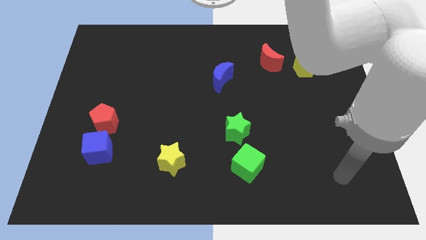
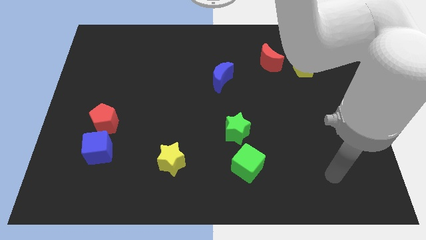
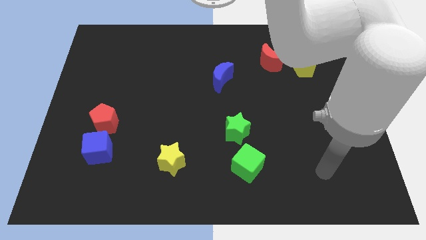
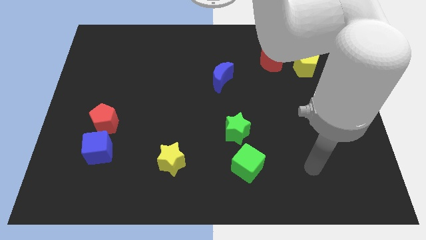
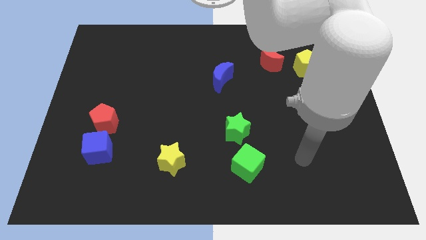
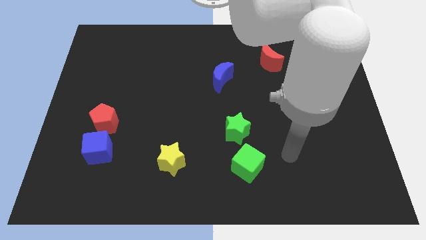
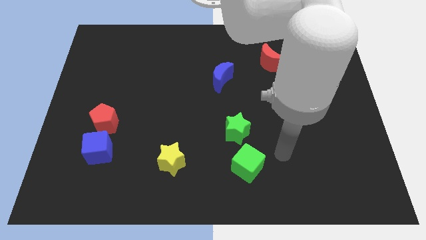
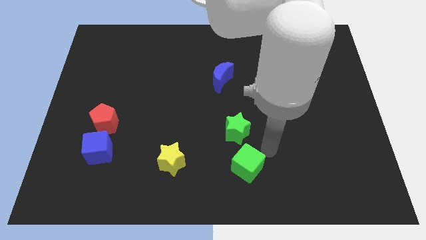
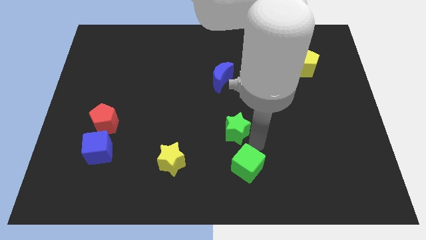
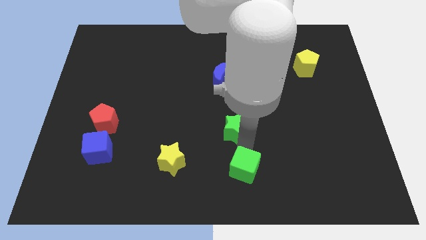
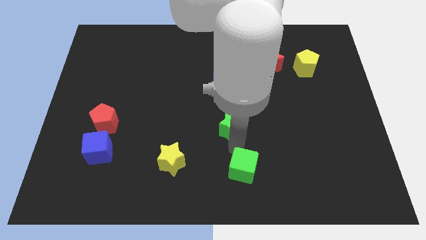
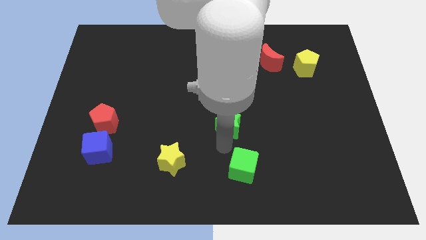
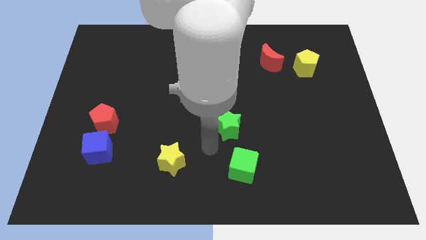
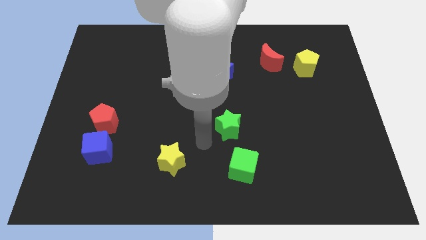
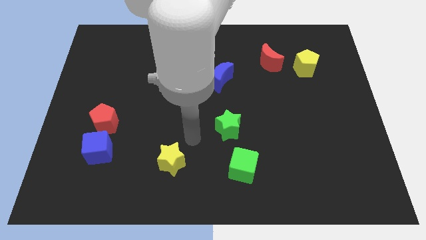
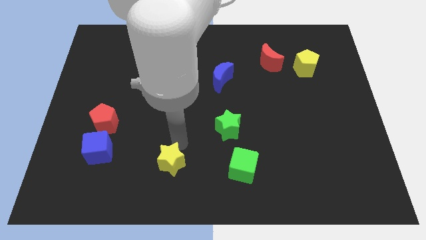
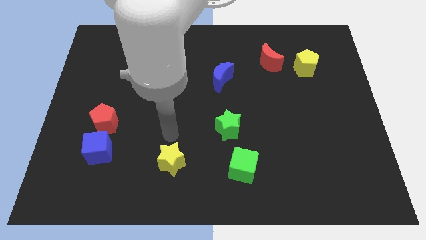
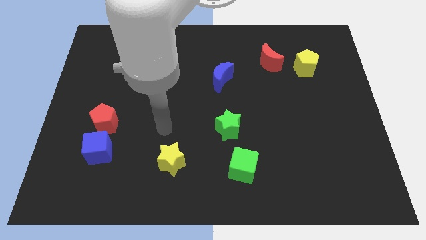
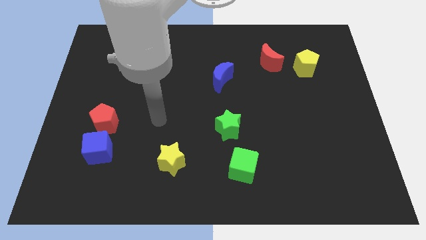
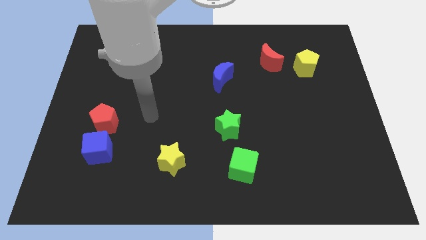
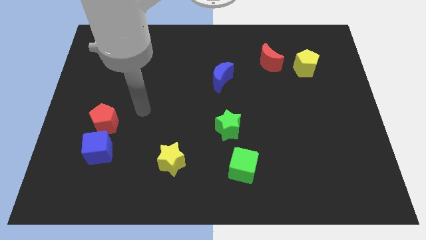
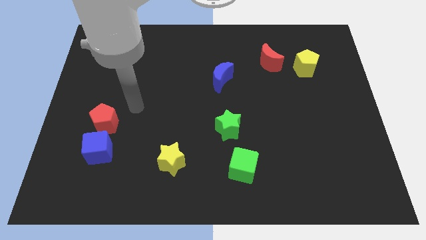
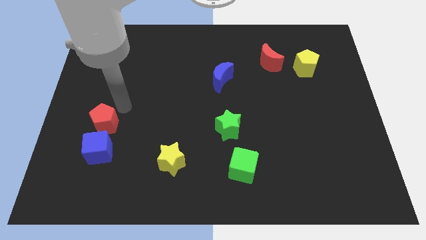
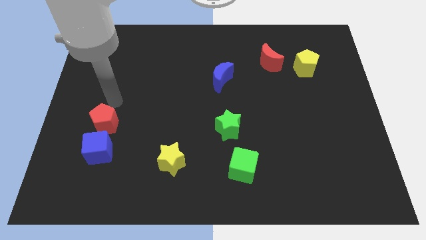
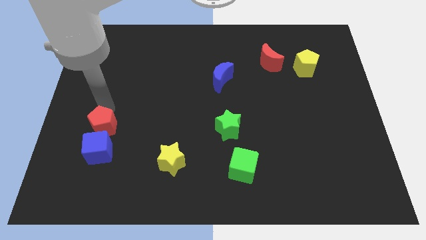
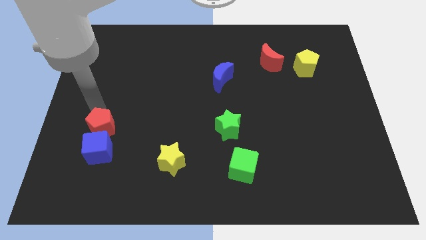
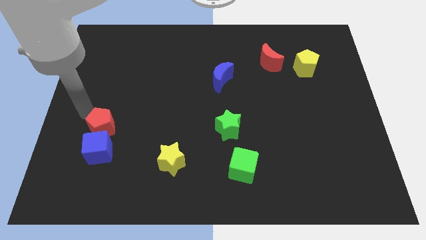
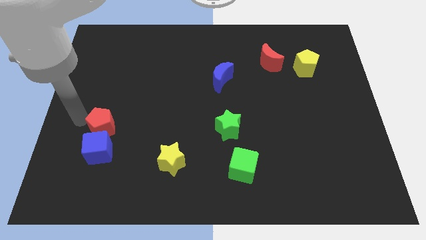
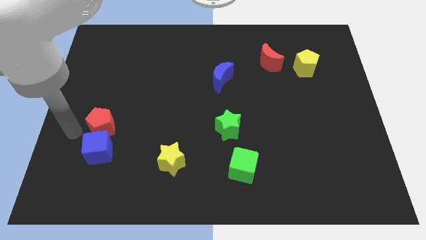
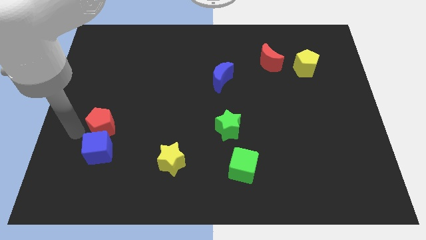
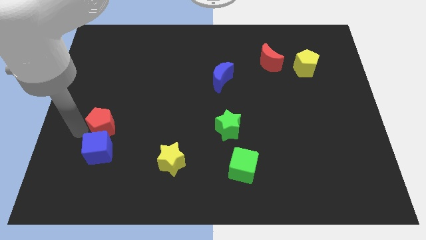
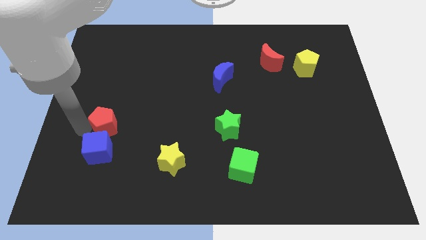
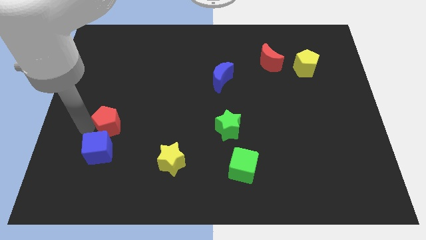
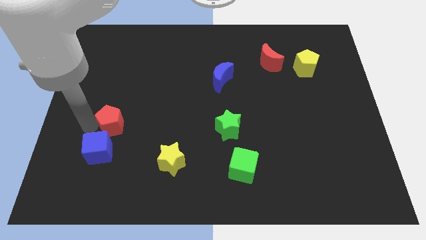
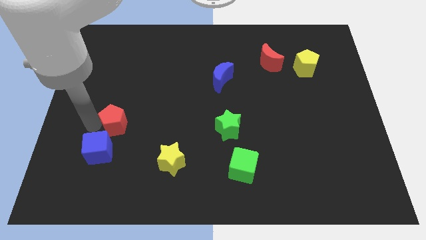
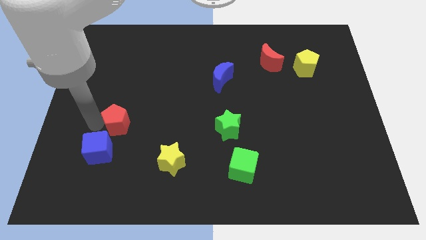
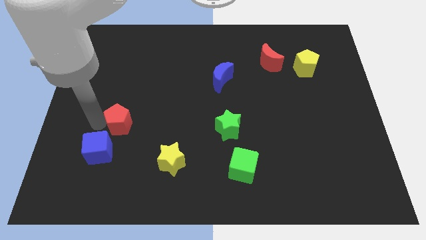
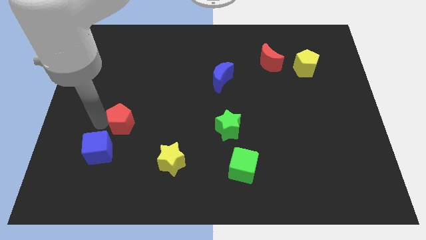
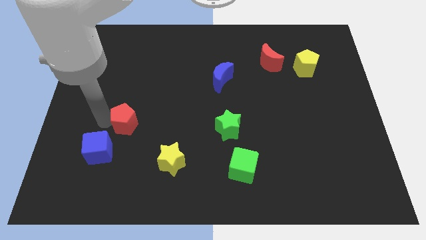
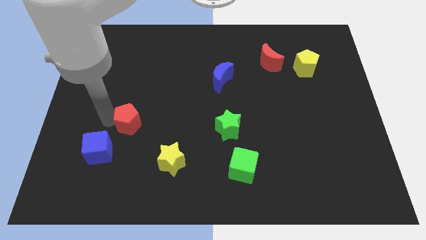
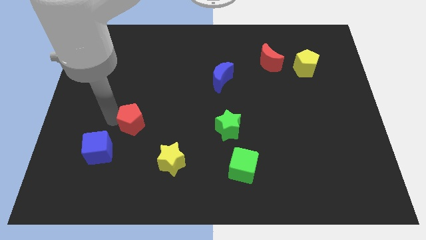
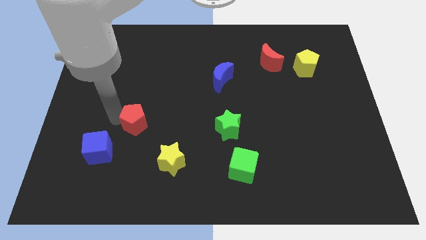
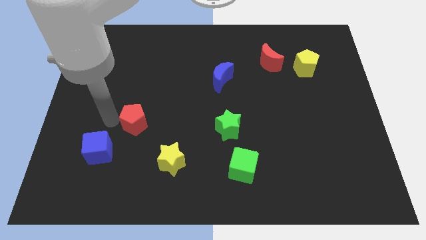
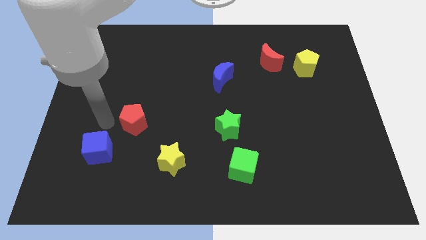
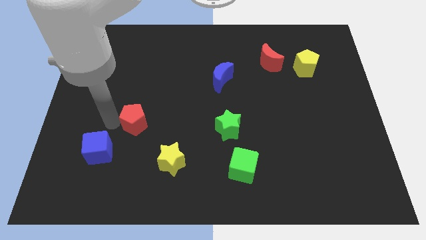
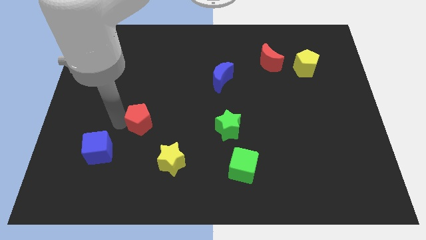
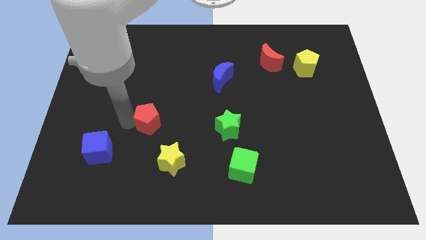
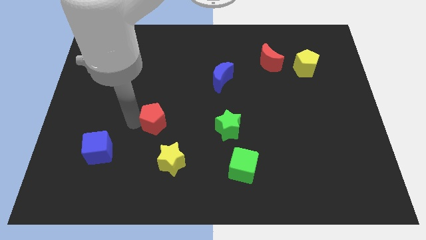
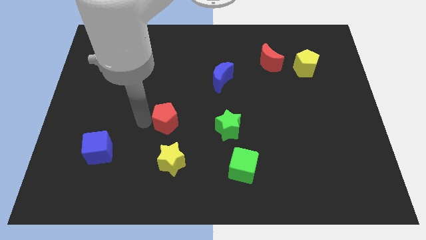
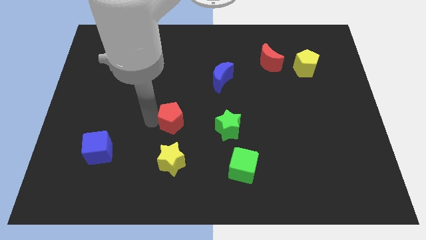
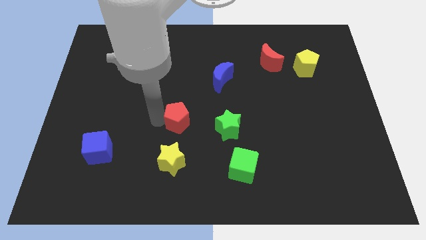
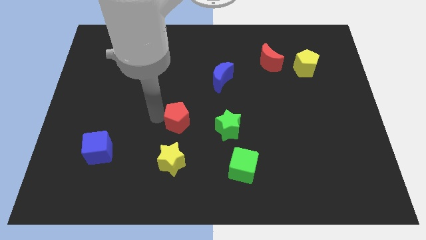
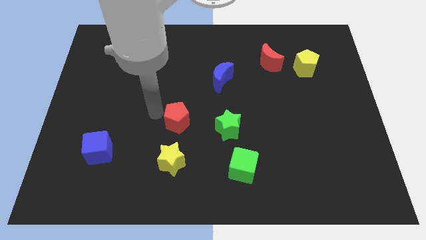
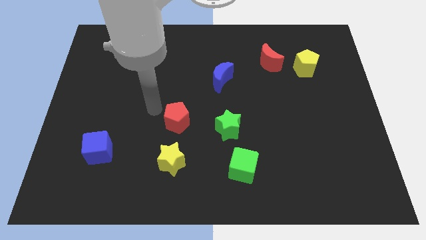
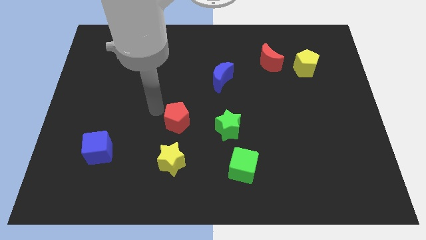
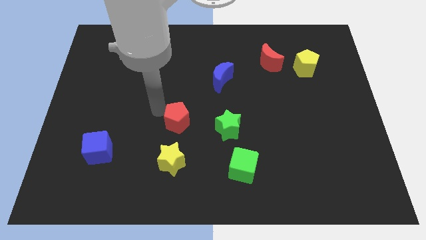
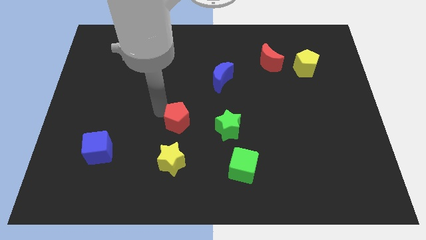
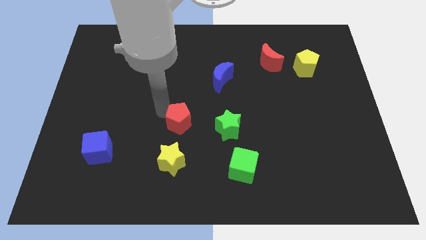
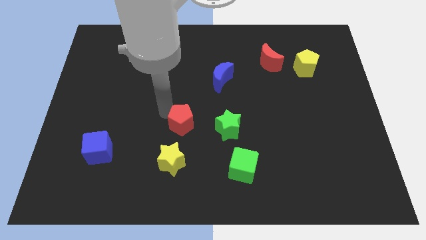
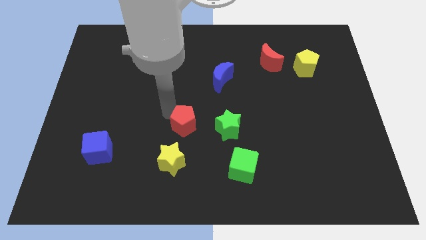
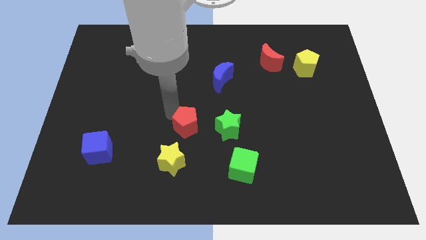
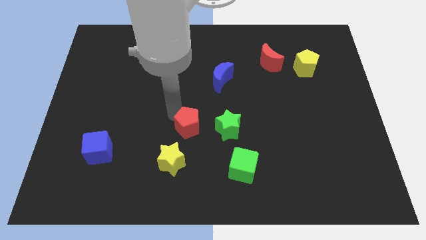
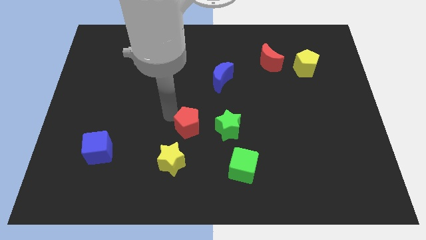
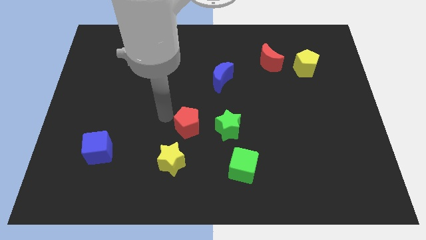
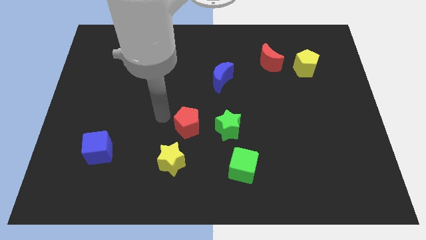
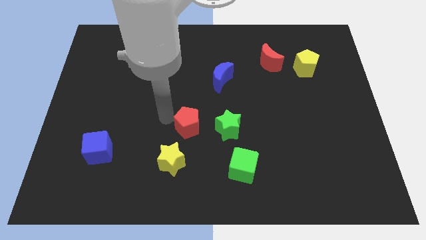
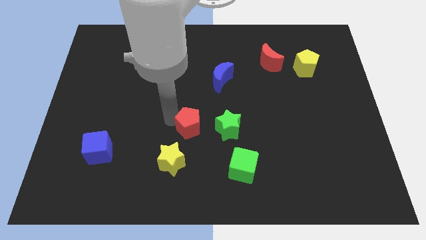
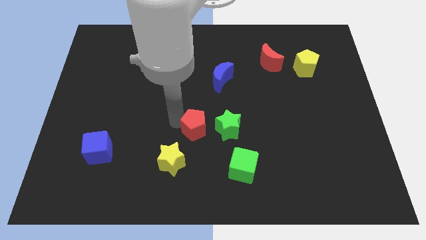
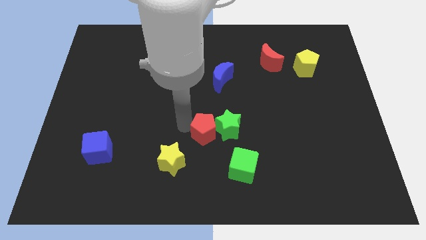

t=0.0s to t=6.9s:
slide the red pentagon towards the green star

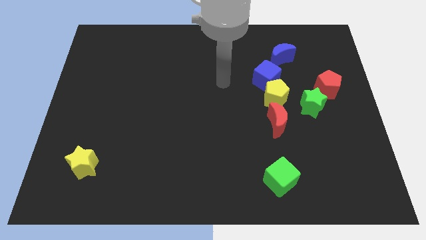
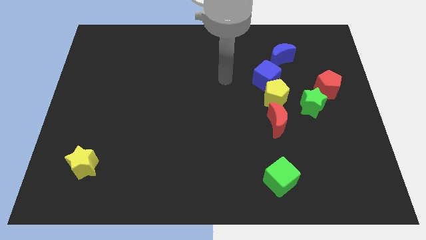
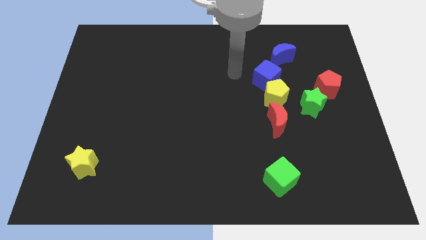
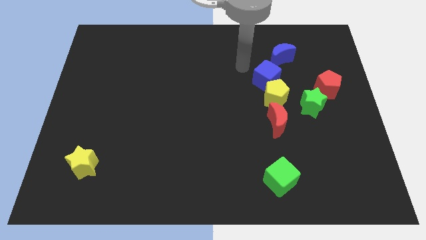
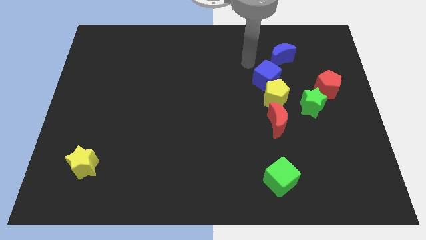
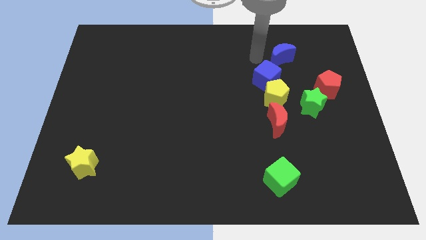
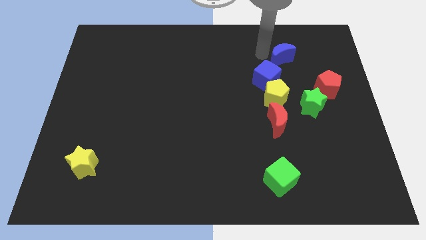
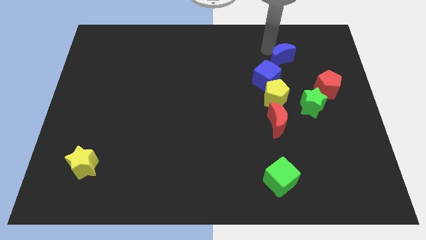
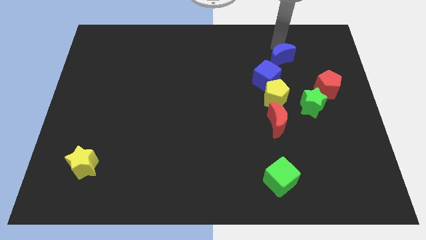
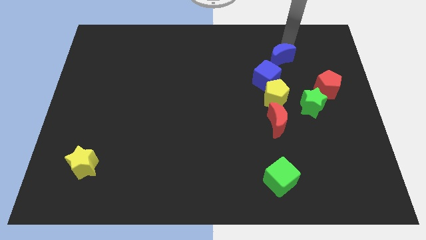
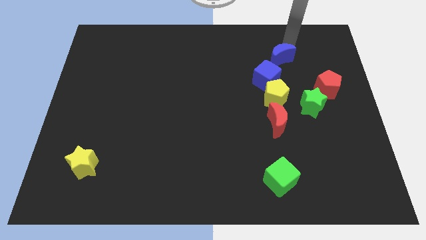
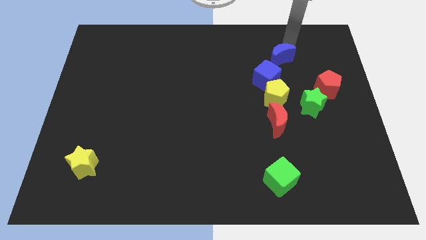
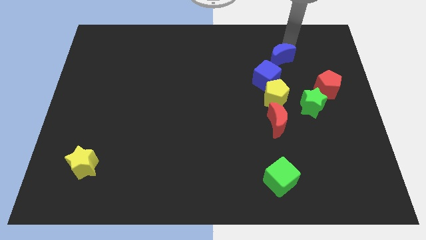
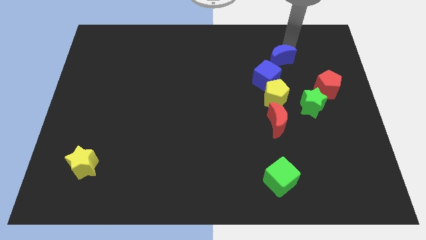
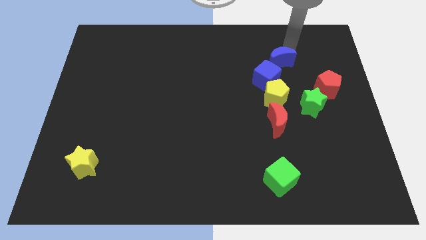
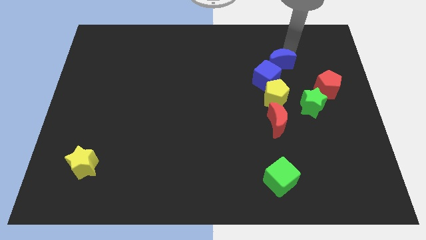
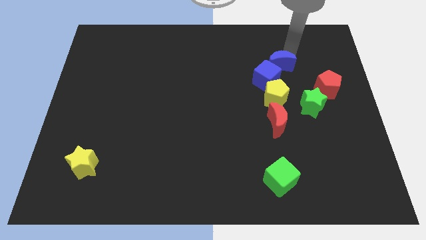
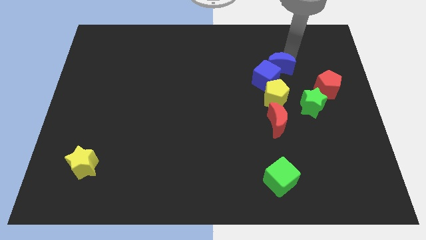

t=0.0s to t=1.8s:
put the blue moon close to the blue cube
